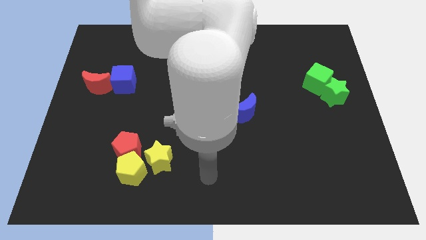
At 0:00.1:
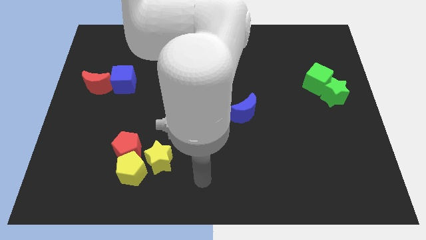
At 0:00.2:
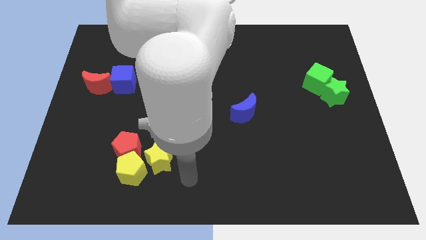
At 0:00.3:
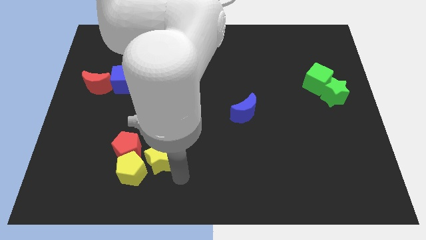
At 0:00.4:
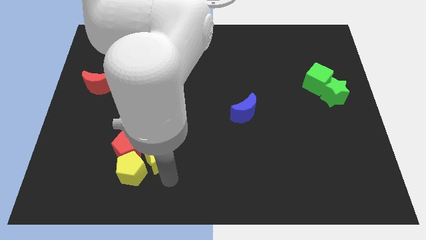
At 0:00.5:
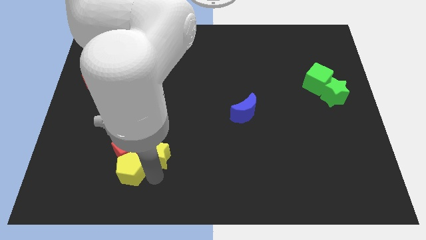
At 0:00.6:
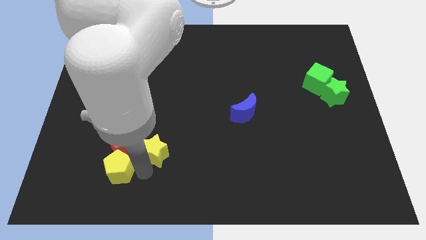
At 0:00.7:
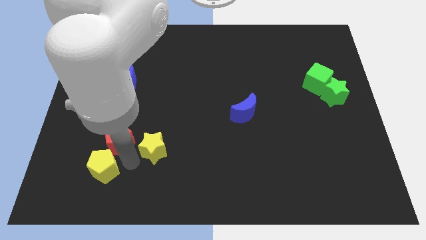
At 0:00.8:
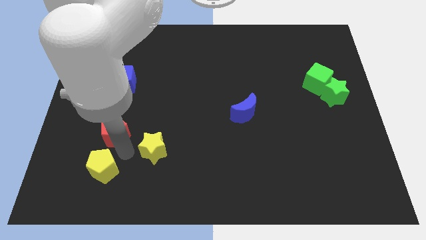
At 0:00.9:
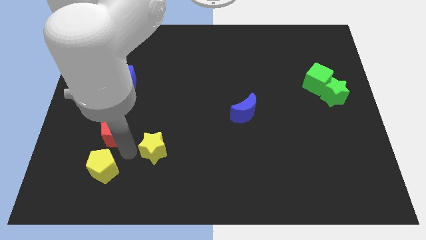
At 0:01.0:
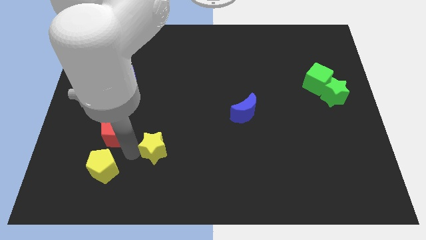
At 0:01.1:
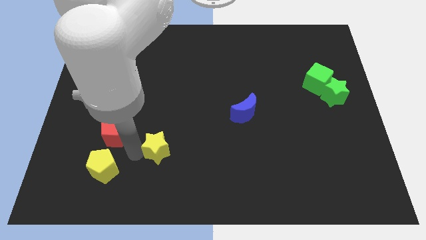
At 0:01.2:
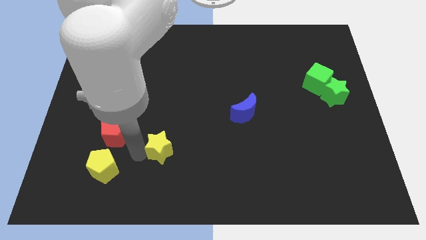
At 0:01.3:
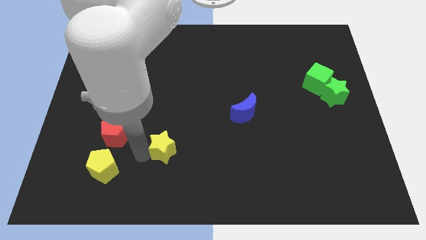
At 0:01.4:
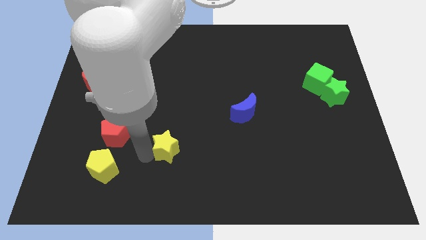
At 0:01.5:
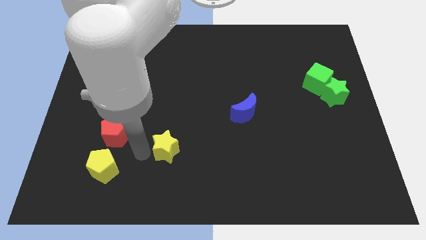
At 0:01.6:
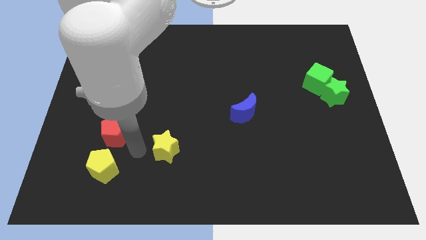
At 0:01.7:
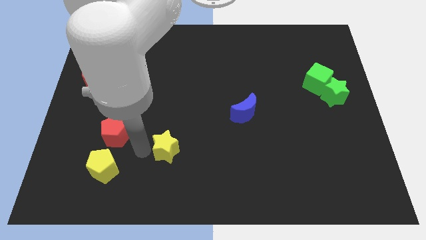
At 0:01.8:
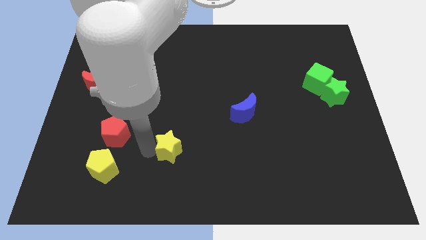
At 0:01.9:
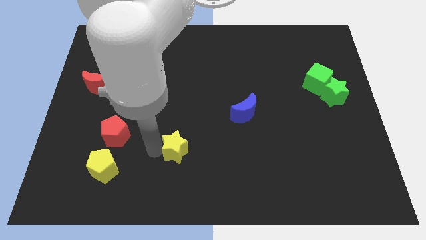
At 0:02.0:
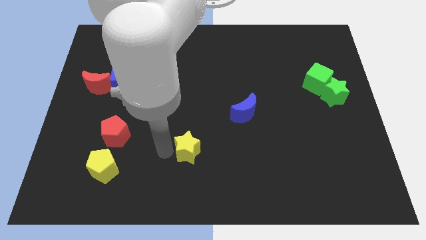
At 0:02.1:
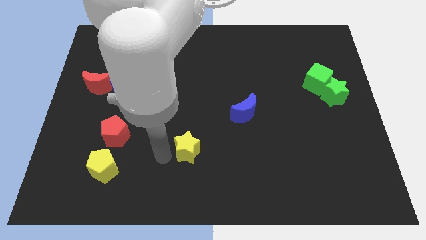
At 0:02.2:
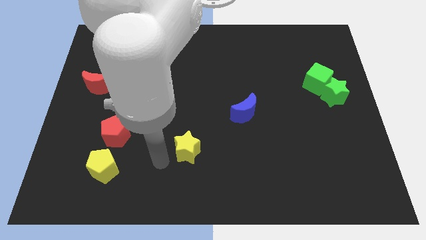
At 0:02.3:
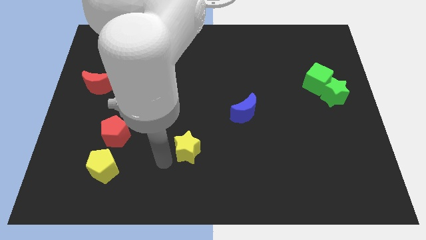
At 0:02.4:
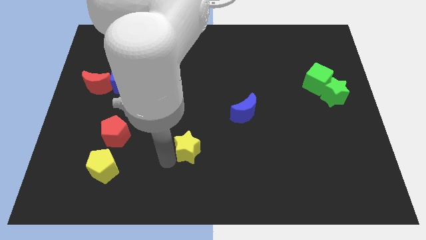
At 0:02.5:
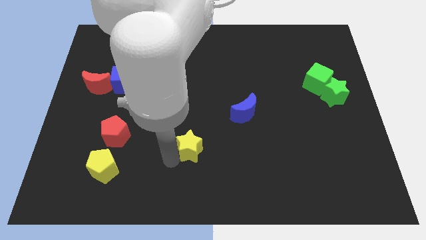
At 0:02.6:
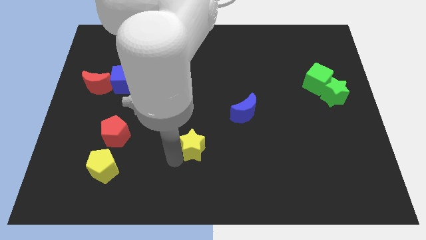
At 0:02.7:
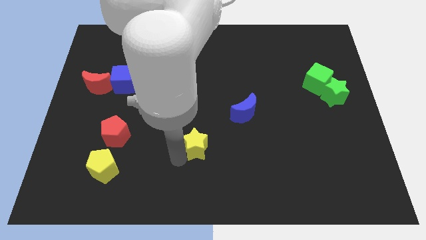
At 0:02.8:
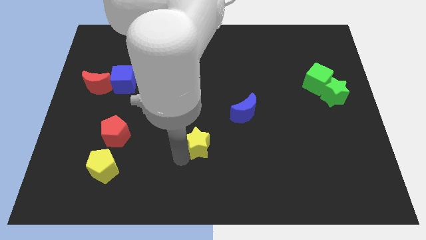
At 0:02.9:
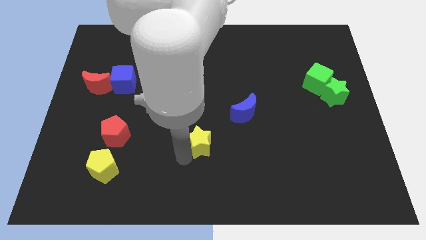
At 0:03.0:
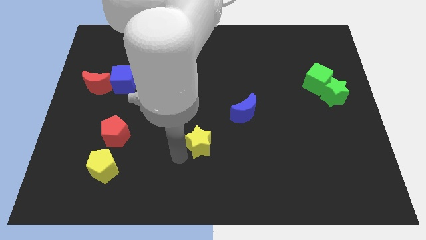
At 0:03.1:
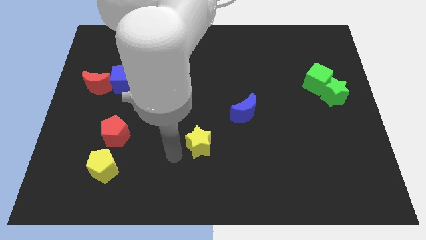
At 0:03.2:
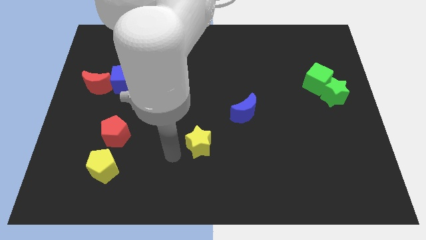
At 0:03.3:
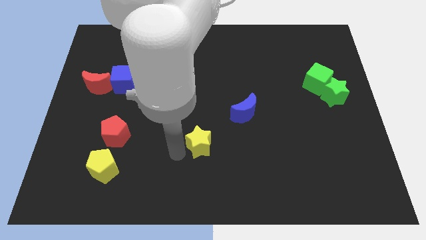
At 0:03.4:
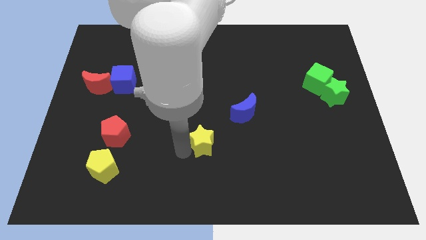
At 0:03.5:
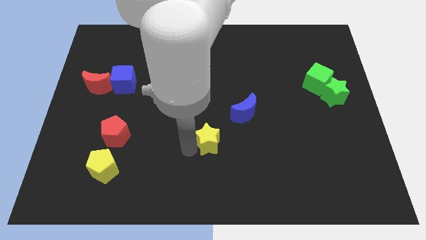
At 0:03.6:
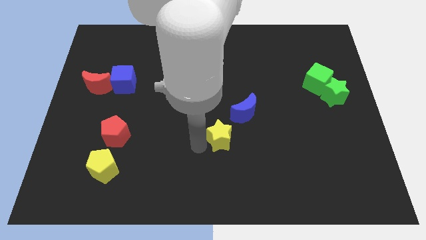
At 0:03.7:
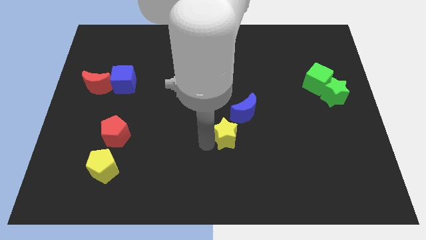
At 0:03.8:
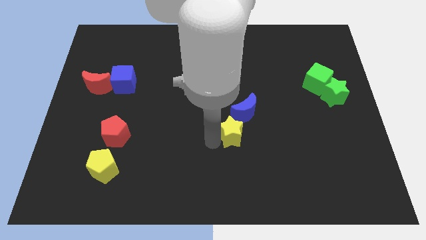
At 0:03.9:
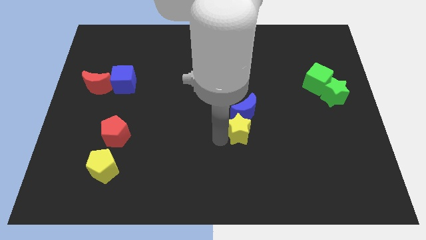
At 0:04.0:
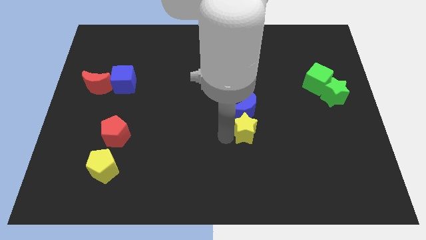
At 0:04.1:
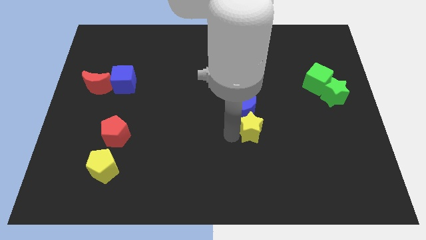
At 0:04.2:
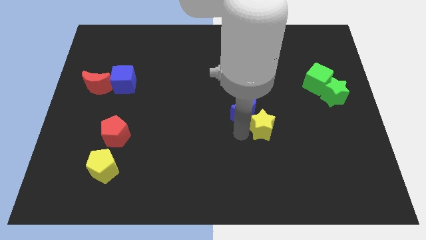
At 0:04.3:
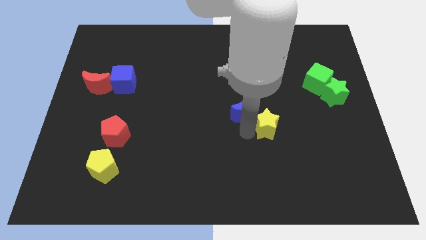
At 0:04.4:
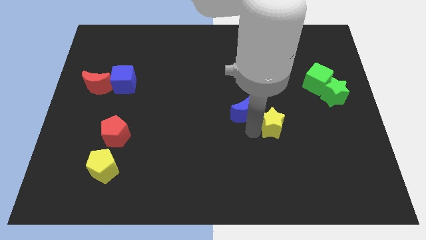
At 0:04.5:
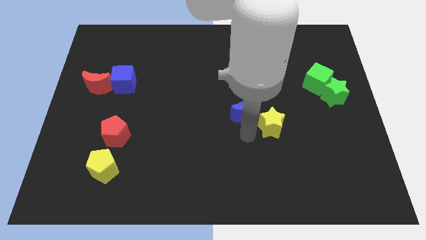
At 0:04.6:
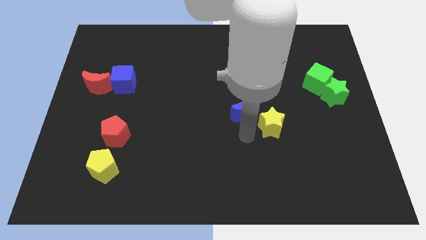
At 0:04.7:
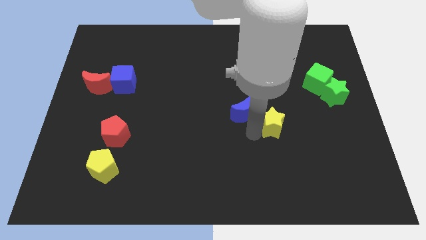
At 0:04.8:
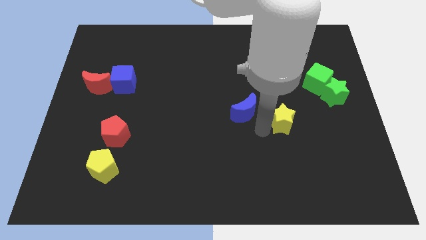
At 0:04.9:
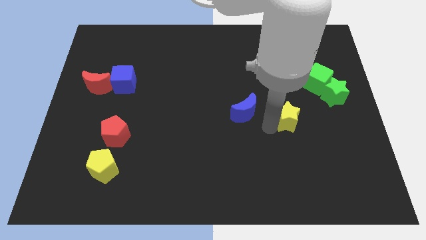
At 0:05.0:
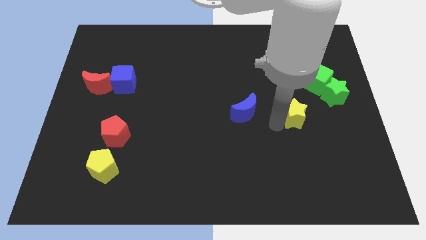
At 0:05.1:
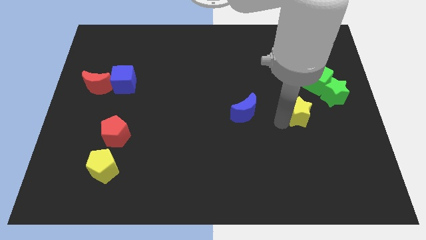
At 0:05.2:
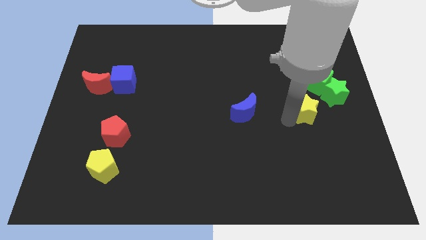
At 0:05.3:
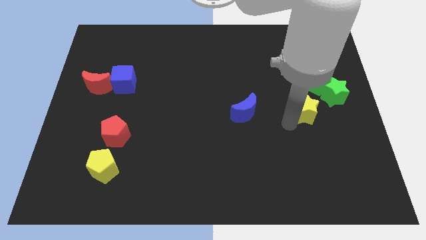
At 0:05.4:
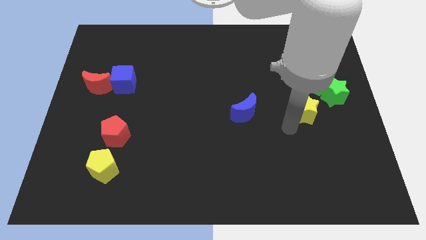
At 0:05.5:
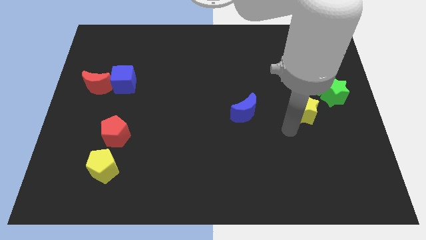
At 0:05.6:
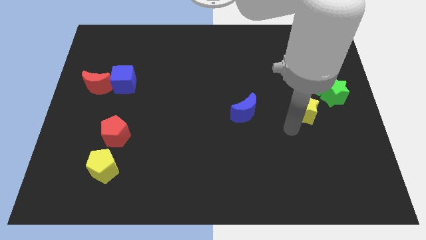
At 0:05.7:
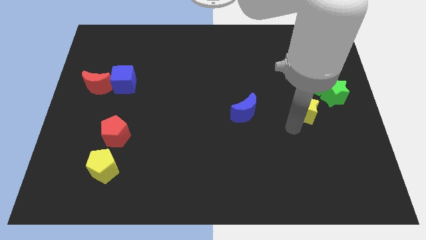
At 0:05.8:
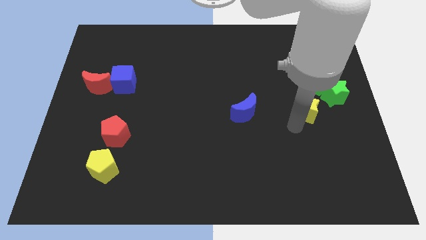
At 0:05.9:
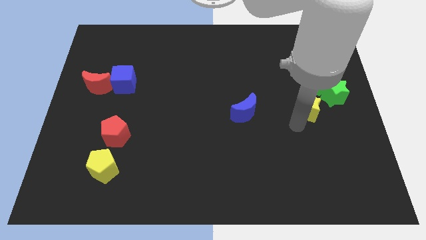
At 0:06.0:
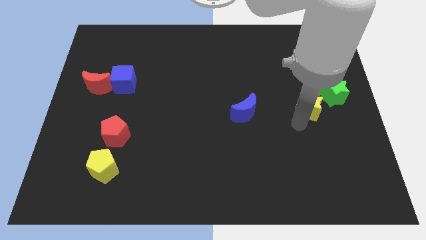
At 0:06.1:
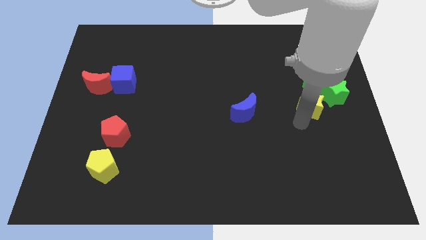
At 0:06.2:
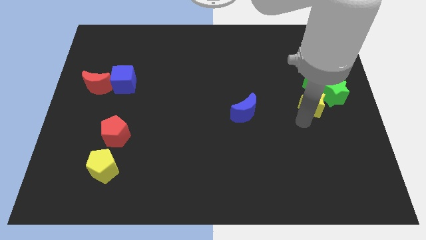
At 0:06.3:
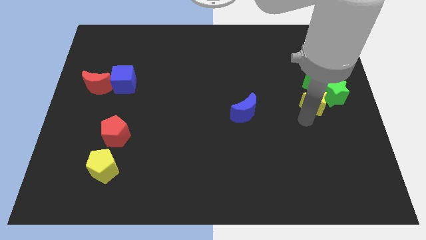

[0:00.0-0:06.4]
put the yellow star towards the green star
